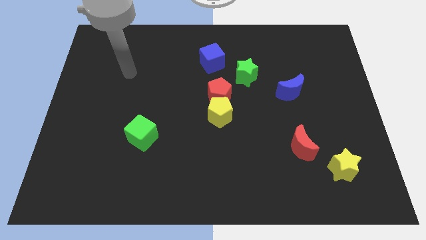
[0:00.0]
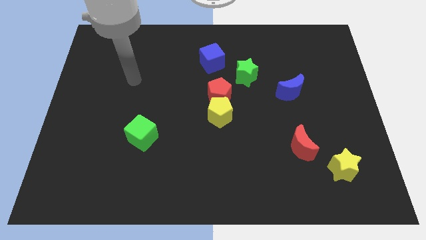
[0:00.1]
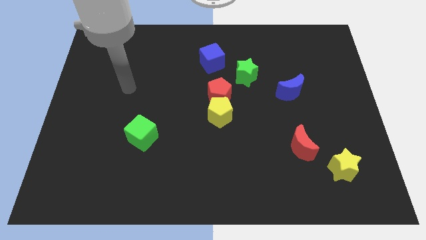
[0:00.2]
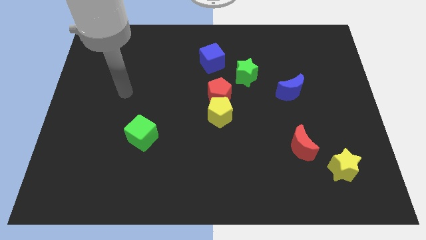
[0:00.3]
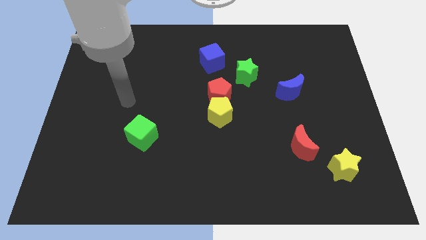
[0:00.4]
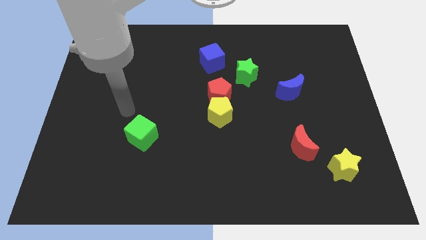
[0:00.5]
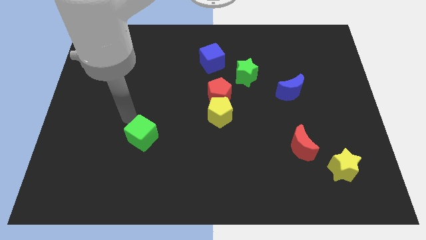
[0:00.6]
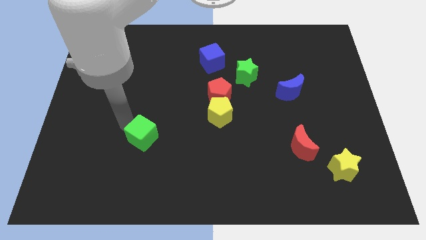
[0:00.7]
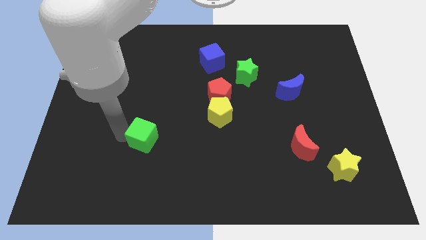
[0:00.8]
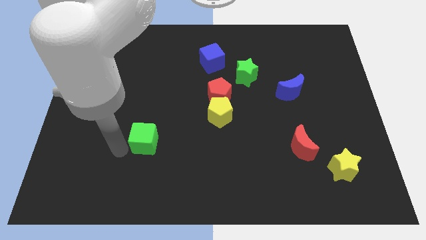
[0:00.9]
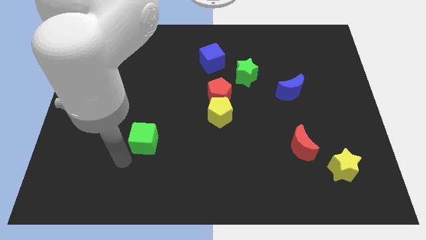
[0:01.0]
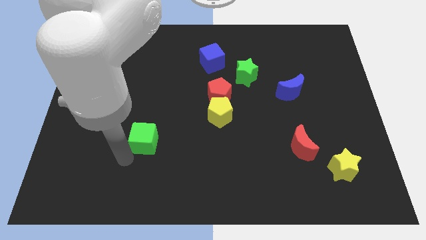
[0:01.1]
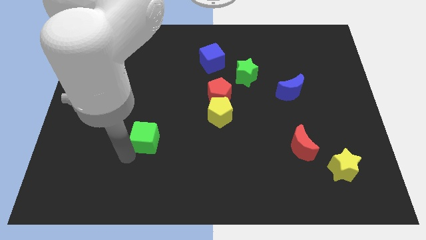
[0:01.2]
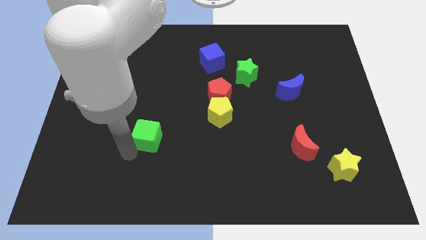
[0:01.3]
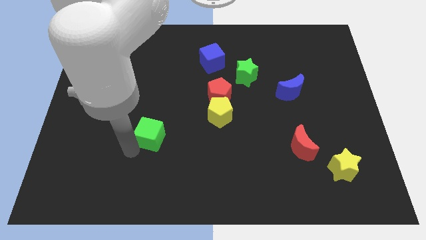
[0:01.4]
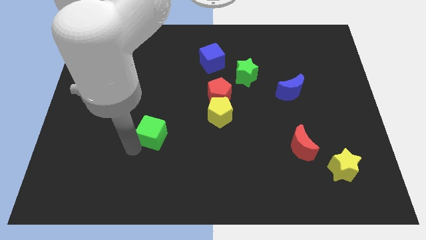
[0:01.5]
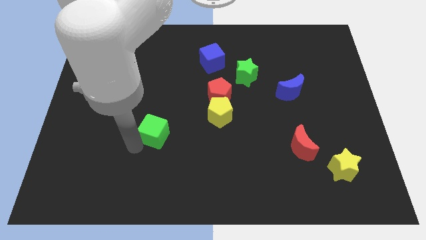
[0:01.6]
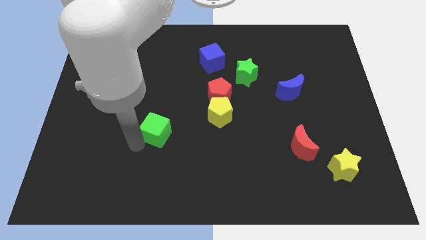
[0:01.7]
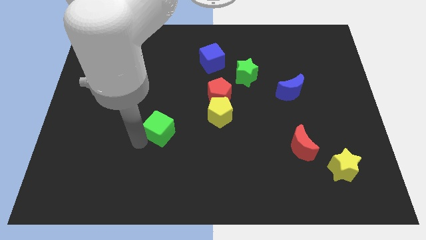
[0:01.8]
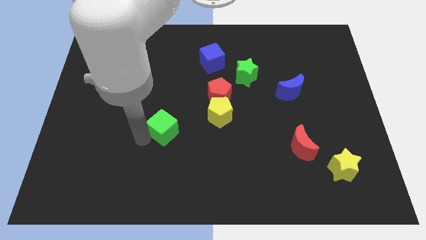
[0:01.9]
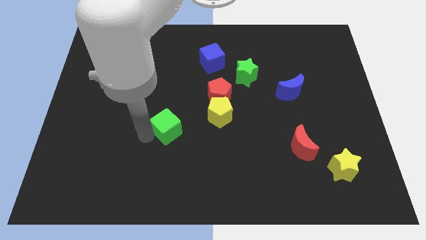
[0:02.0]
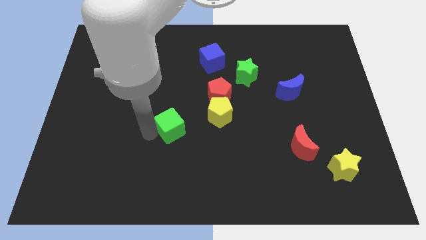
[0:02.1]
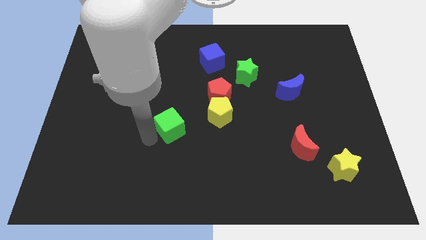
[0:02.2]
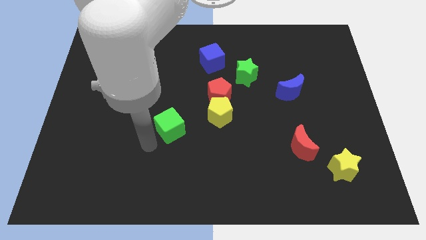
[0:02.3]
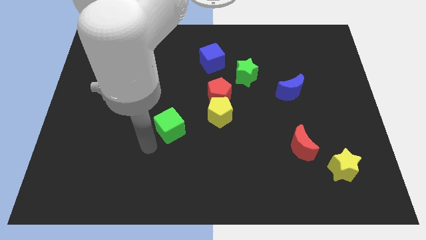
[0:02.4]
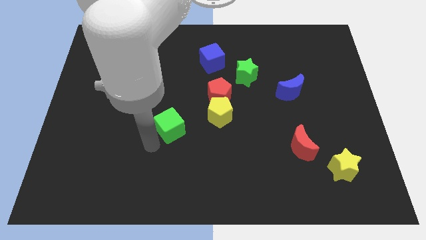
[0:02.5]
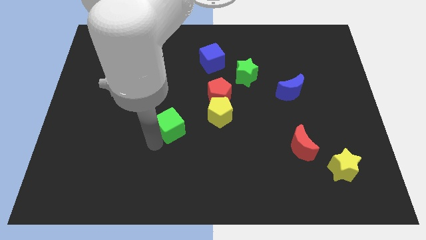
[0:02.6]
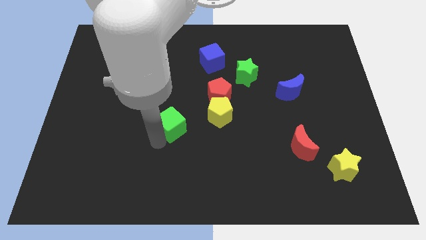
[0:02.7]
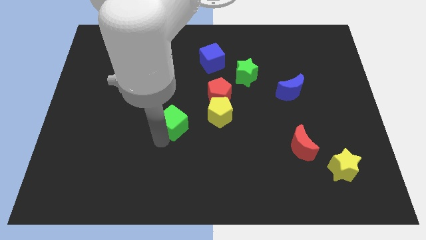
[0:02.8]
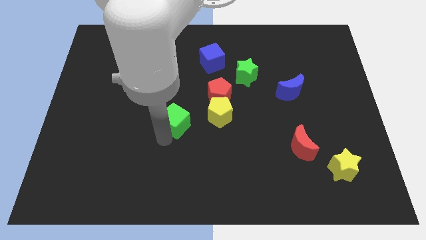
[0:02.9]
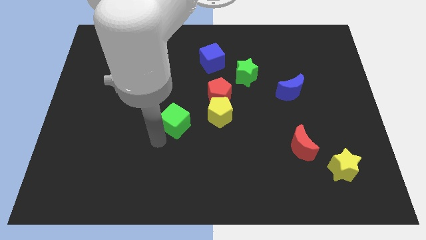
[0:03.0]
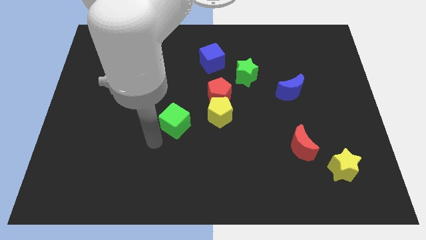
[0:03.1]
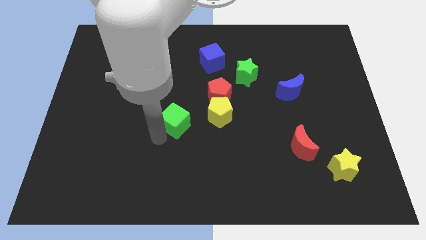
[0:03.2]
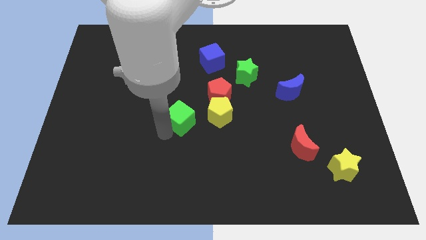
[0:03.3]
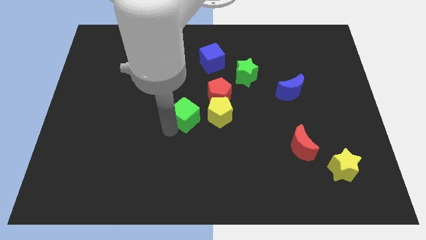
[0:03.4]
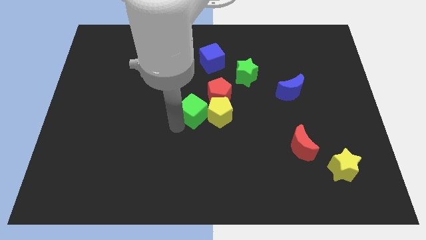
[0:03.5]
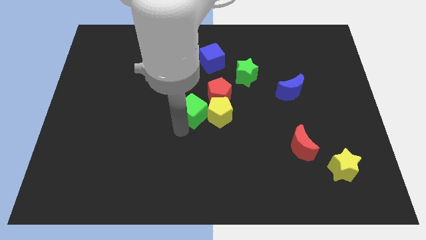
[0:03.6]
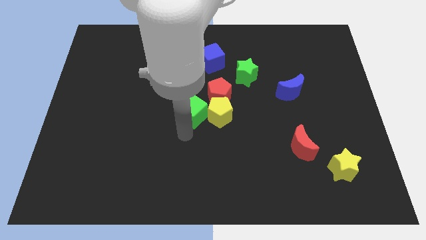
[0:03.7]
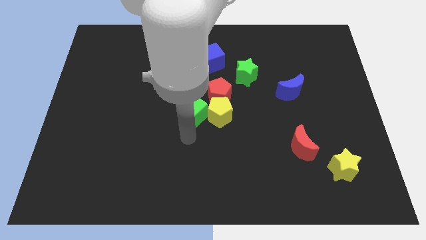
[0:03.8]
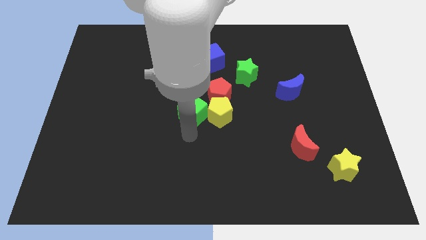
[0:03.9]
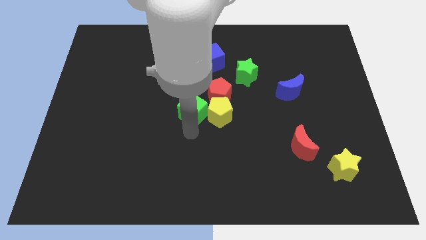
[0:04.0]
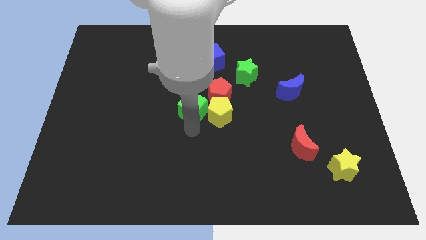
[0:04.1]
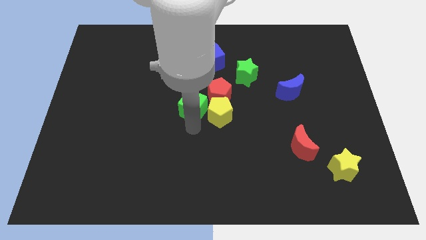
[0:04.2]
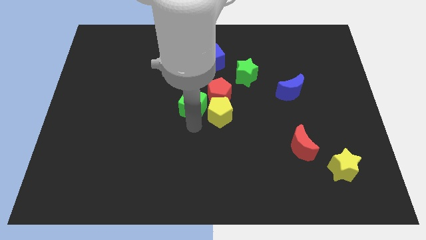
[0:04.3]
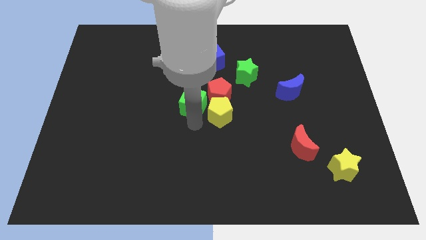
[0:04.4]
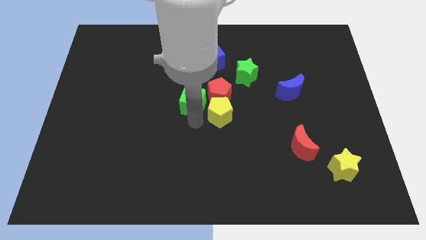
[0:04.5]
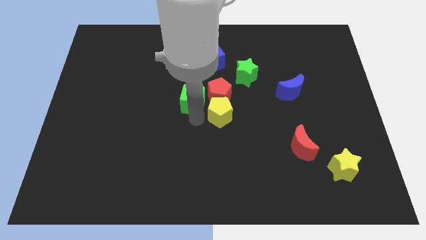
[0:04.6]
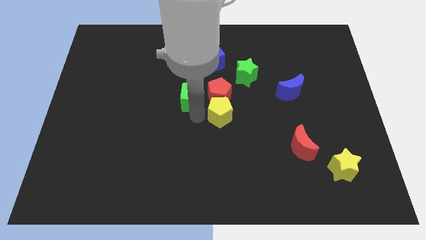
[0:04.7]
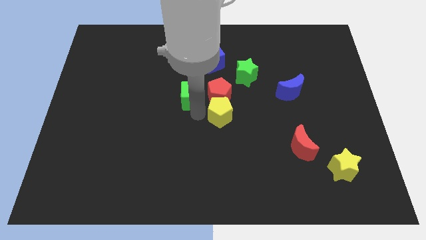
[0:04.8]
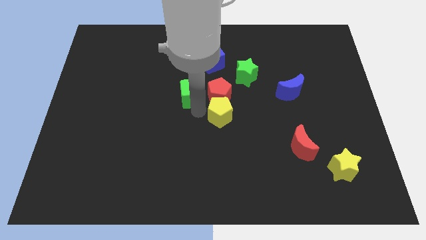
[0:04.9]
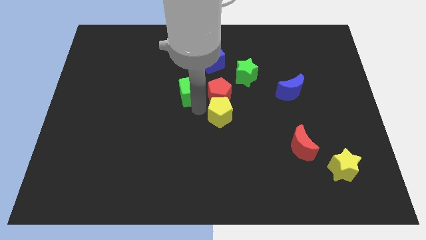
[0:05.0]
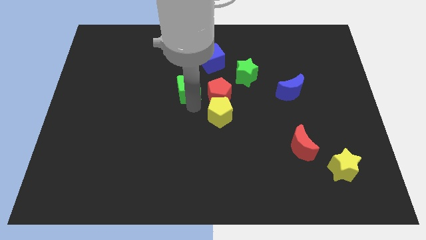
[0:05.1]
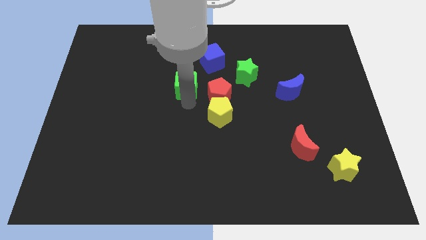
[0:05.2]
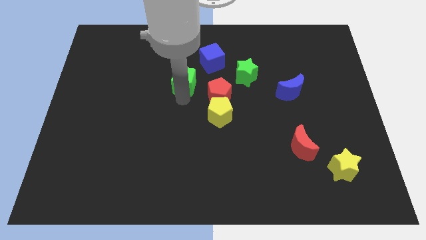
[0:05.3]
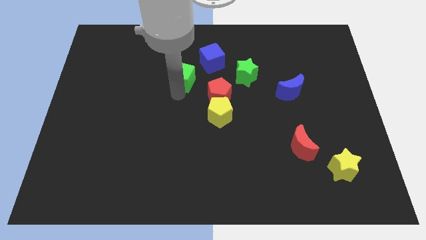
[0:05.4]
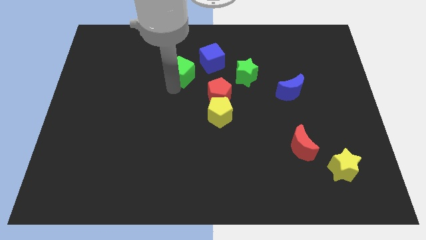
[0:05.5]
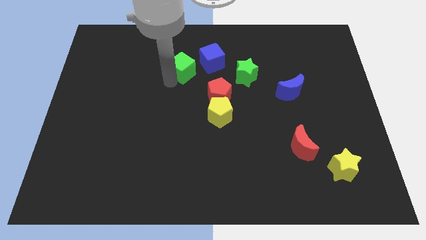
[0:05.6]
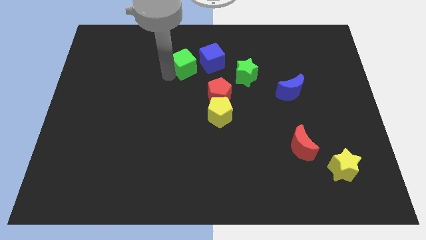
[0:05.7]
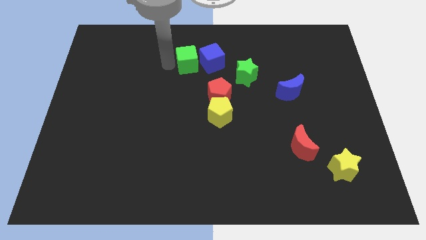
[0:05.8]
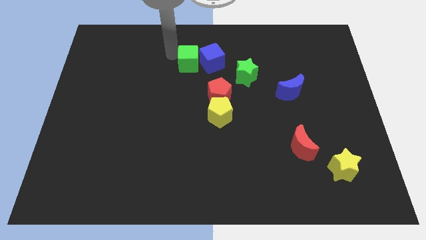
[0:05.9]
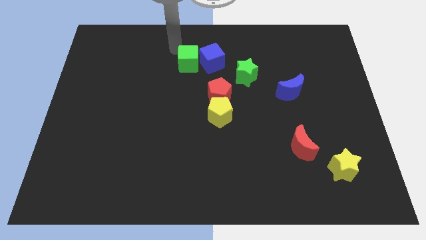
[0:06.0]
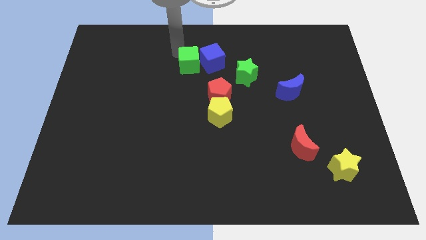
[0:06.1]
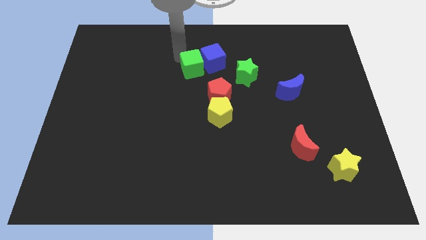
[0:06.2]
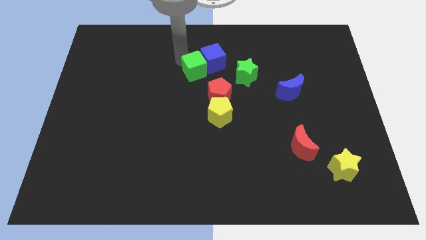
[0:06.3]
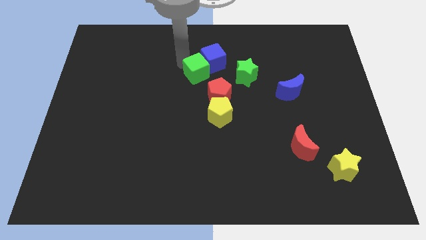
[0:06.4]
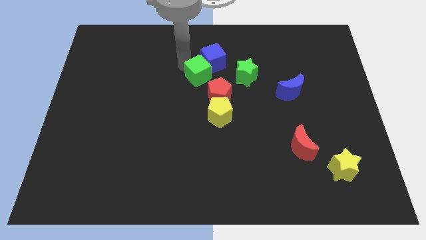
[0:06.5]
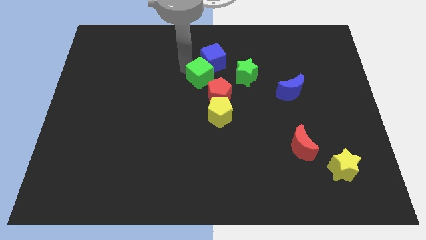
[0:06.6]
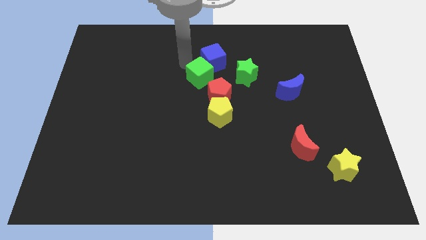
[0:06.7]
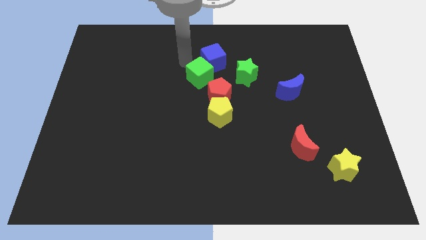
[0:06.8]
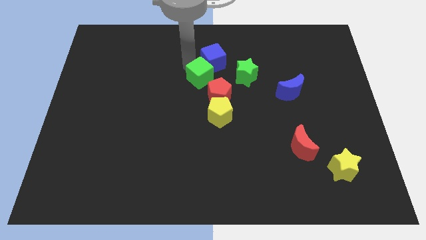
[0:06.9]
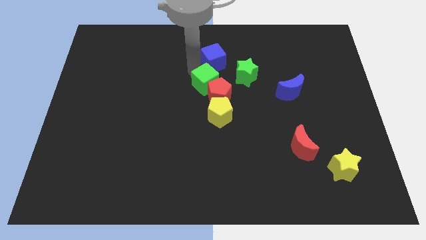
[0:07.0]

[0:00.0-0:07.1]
move the green cube to the red pentagon
